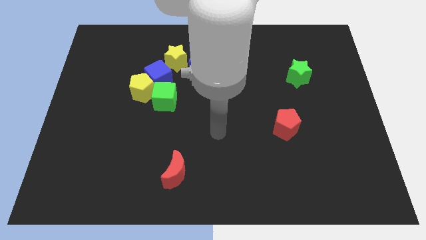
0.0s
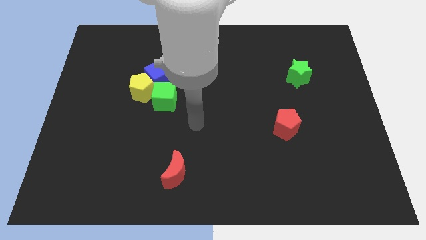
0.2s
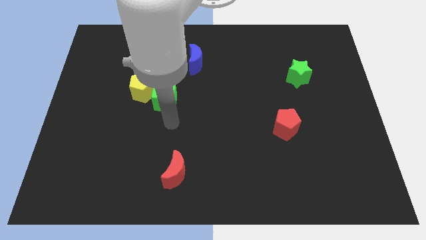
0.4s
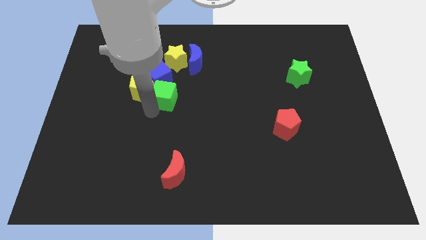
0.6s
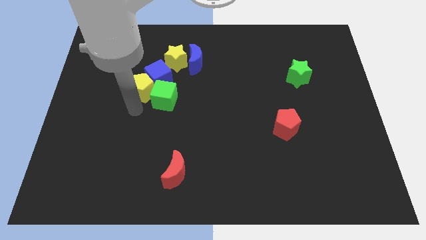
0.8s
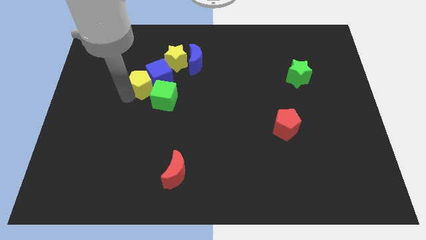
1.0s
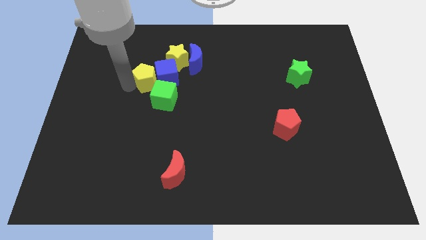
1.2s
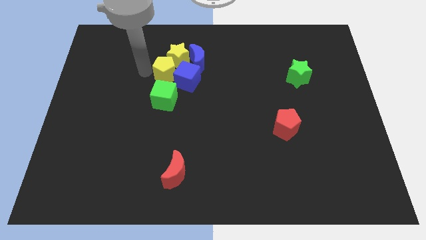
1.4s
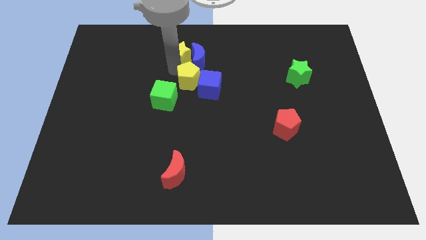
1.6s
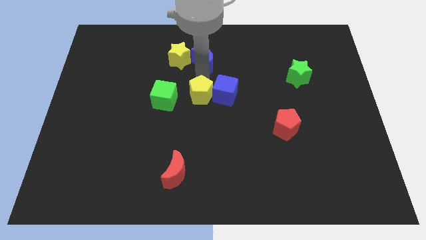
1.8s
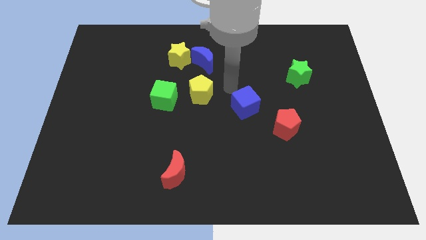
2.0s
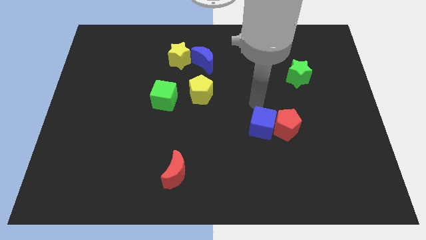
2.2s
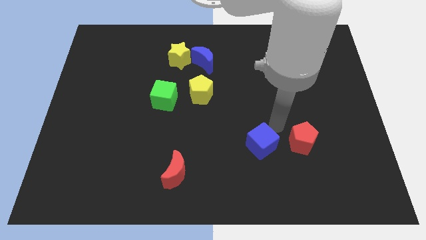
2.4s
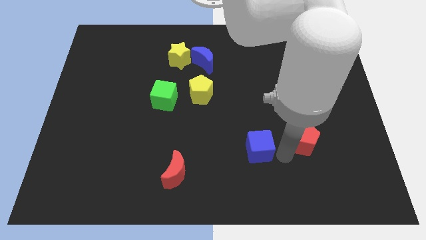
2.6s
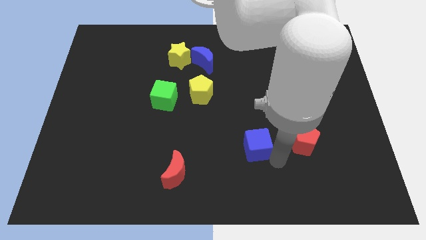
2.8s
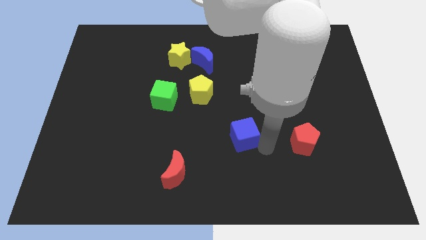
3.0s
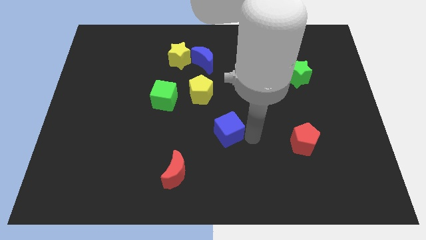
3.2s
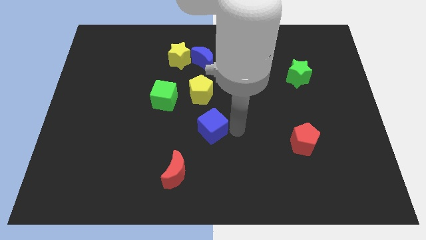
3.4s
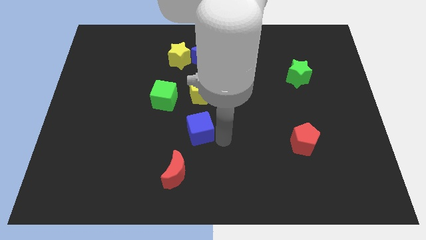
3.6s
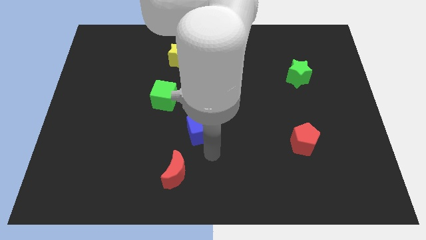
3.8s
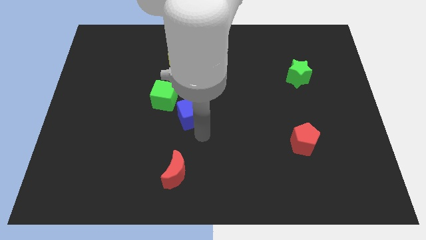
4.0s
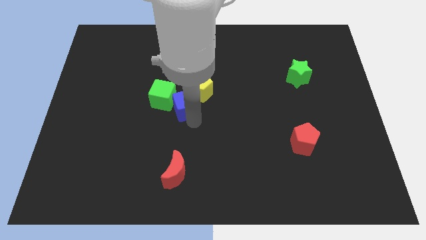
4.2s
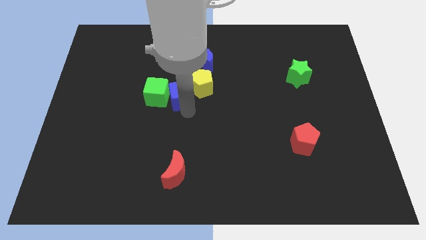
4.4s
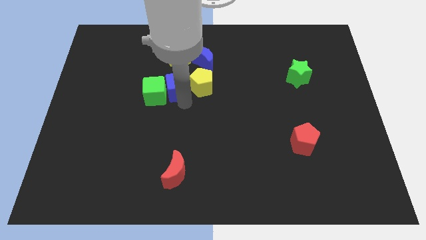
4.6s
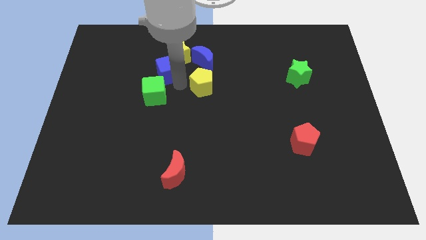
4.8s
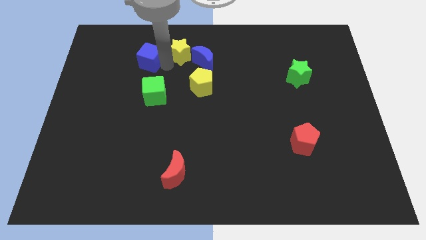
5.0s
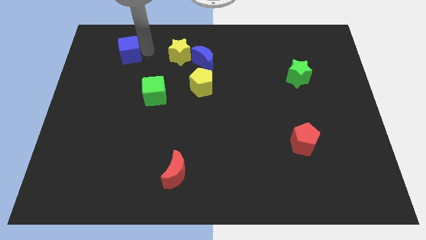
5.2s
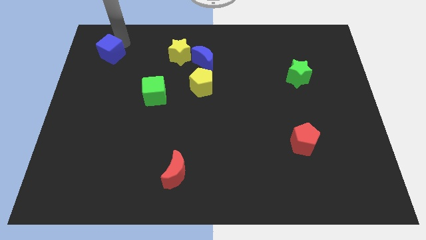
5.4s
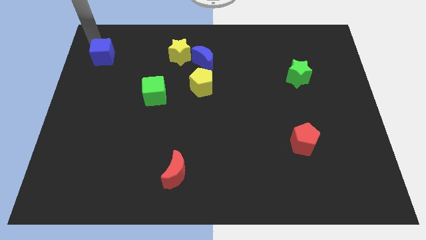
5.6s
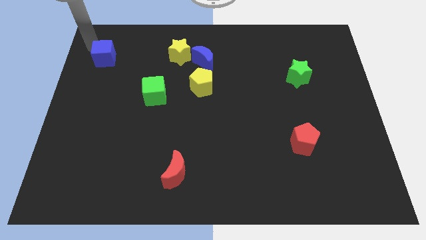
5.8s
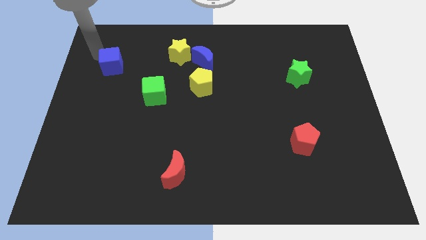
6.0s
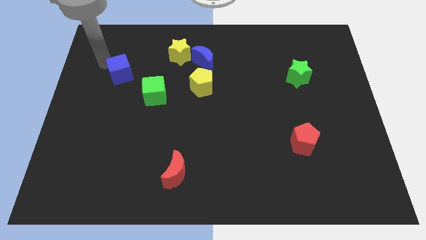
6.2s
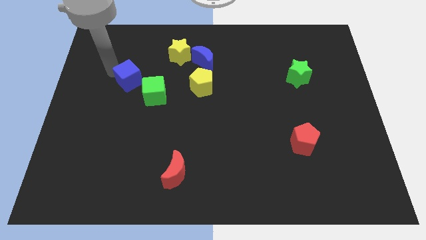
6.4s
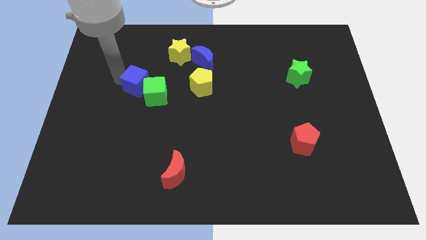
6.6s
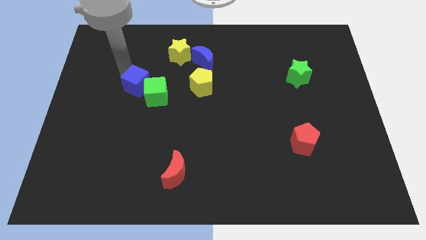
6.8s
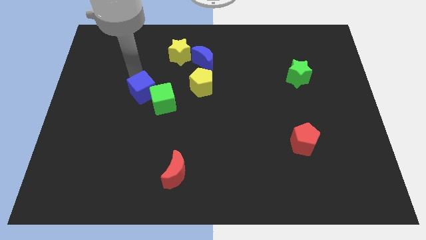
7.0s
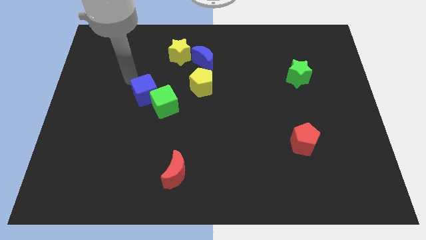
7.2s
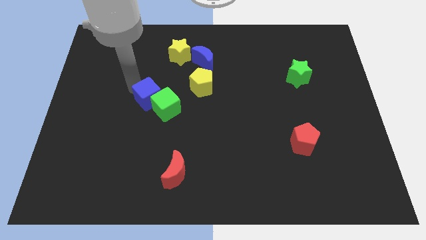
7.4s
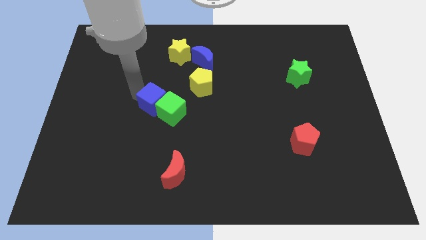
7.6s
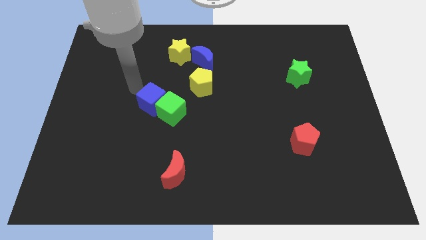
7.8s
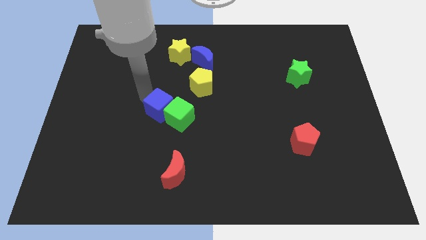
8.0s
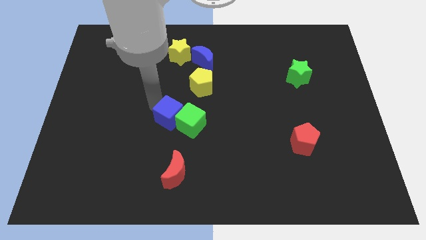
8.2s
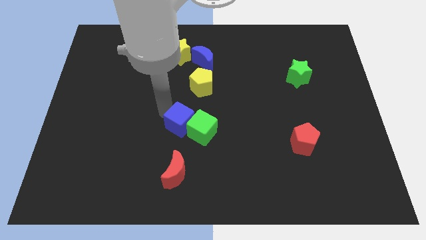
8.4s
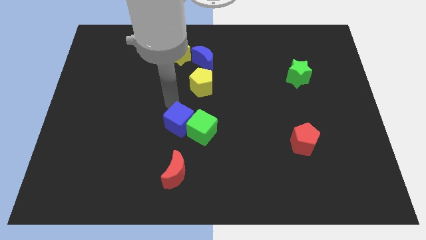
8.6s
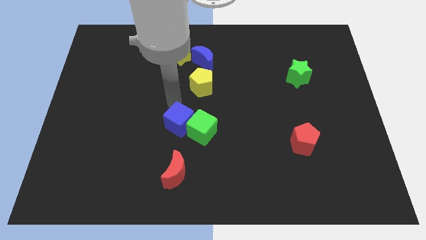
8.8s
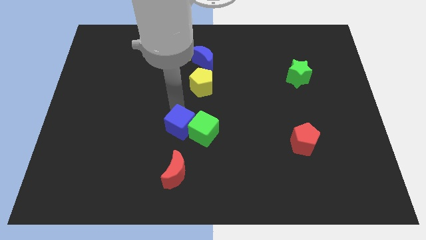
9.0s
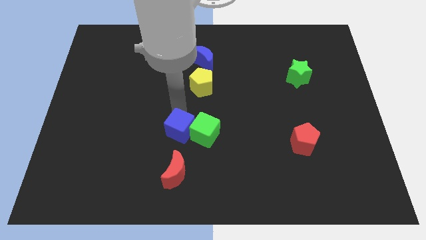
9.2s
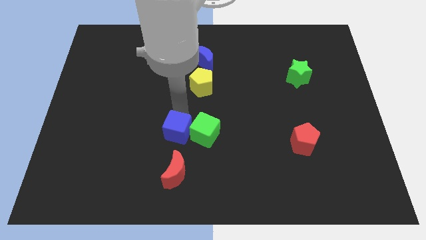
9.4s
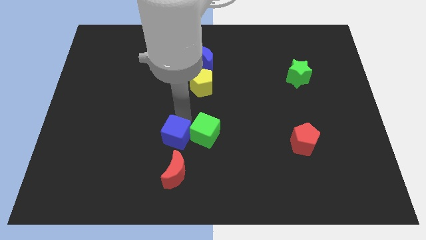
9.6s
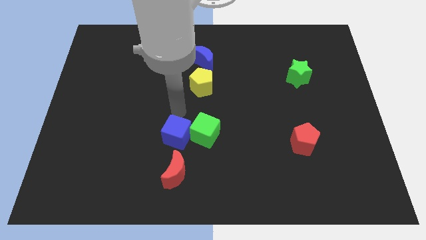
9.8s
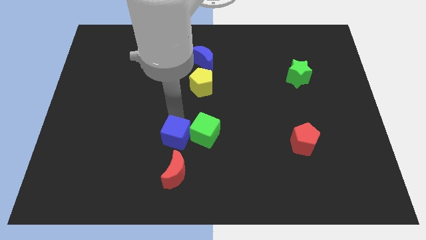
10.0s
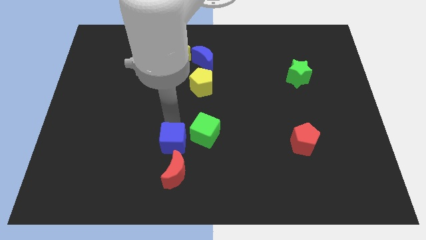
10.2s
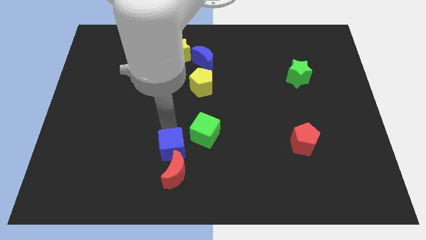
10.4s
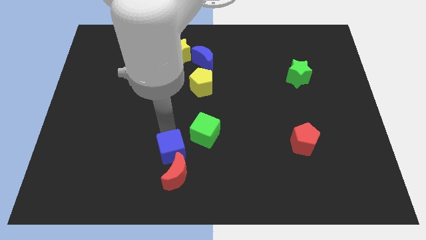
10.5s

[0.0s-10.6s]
push the blue cube towards the red moon

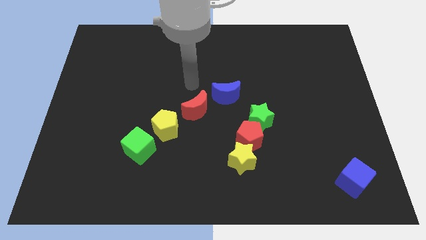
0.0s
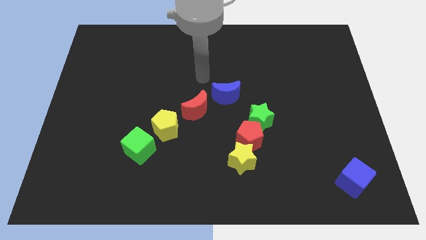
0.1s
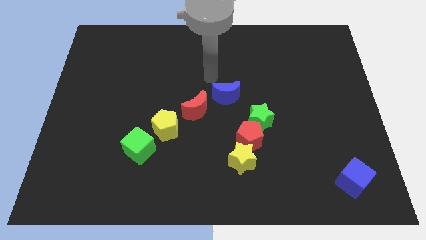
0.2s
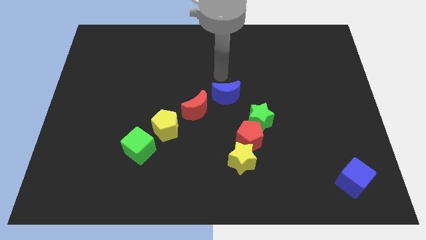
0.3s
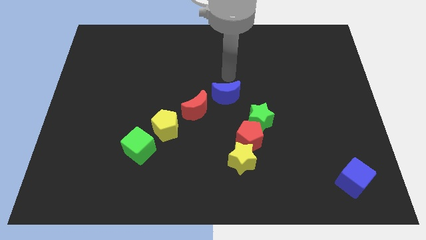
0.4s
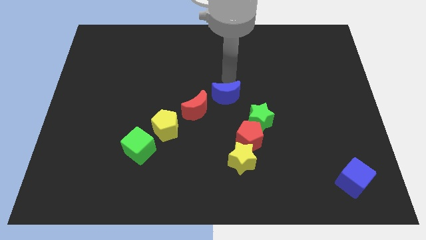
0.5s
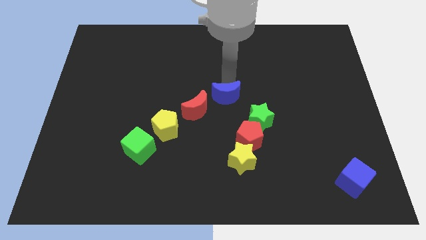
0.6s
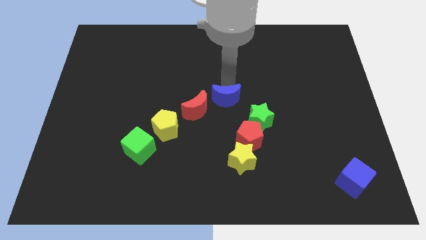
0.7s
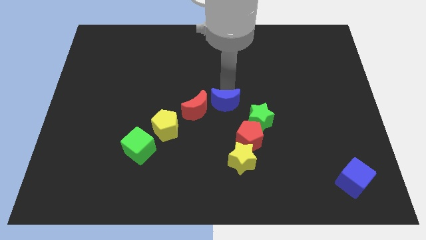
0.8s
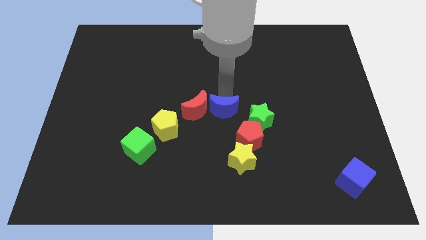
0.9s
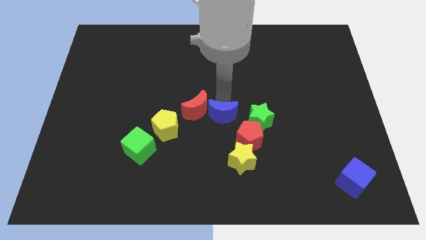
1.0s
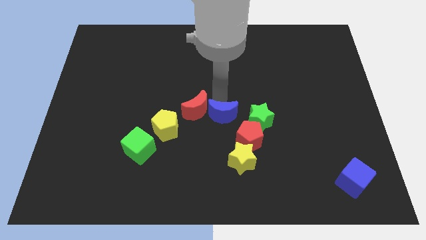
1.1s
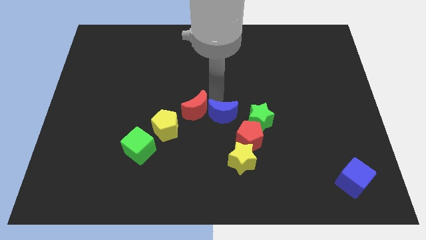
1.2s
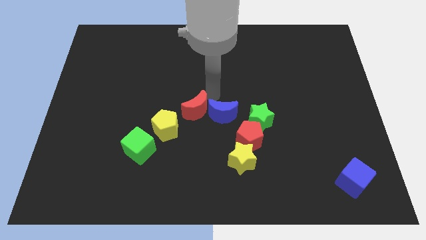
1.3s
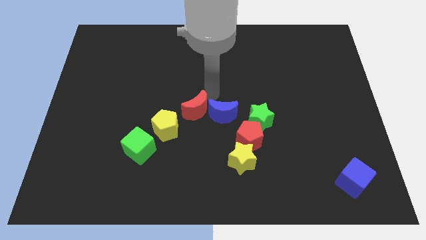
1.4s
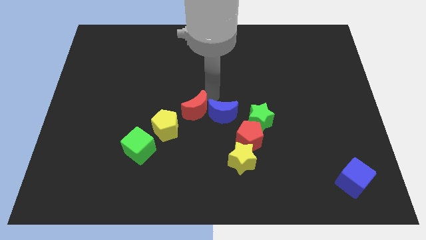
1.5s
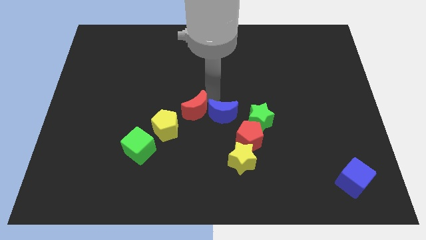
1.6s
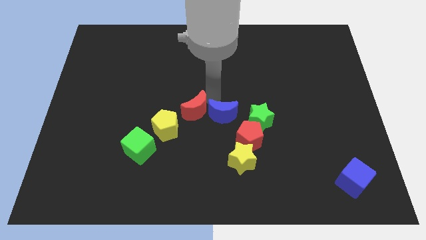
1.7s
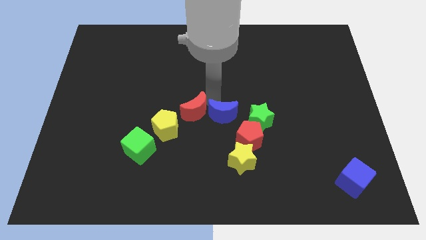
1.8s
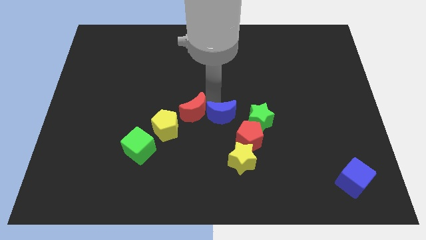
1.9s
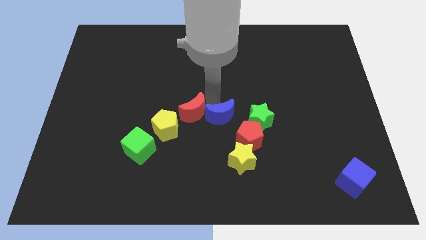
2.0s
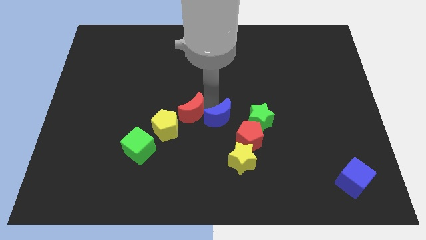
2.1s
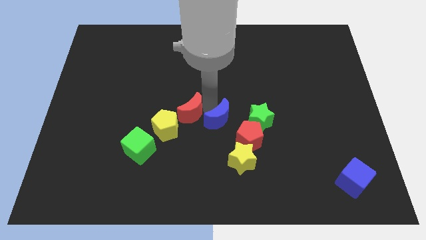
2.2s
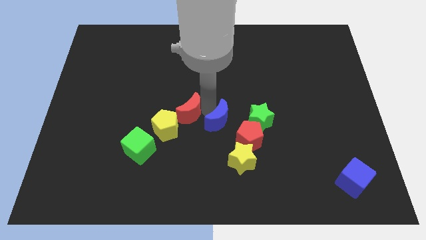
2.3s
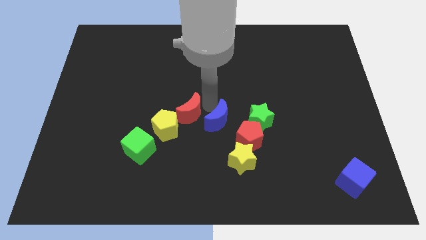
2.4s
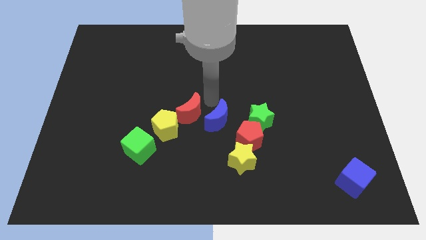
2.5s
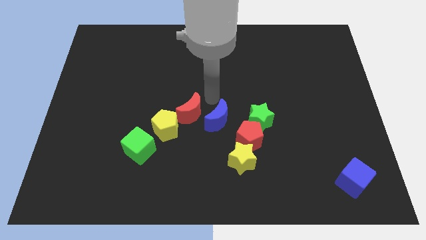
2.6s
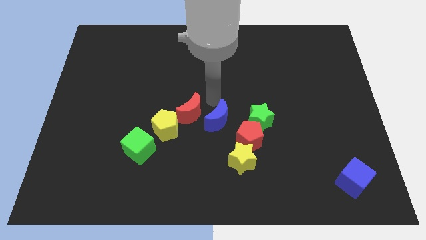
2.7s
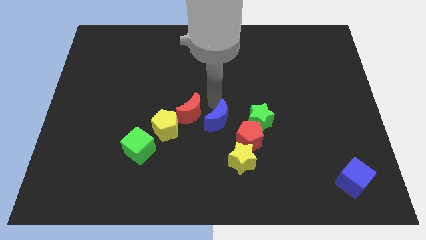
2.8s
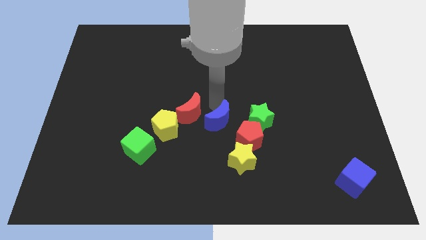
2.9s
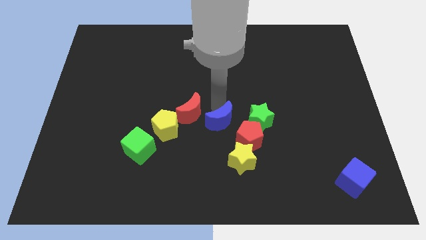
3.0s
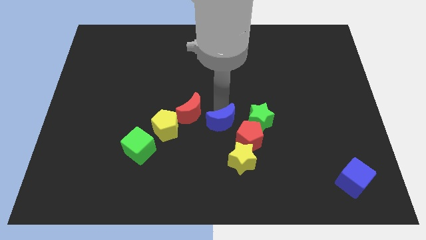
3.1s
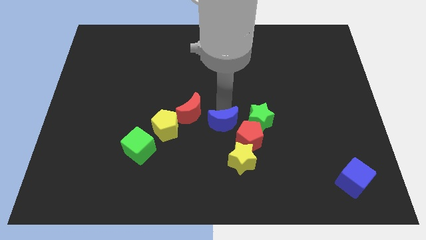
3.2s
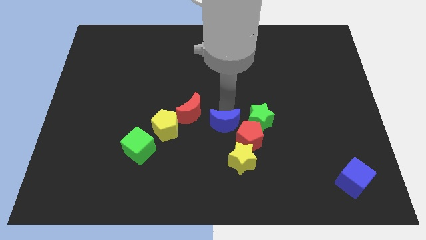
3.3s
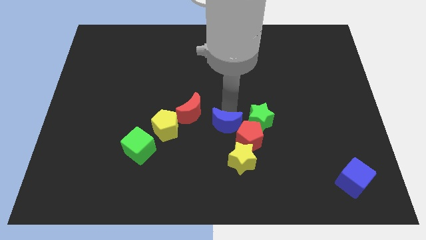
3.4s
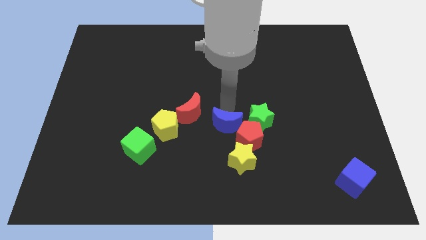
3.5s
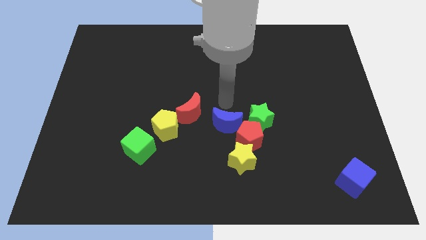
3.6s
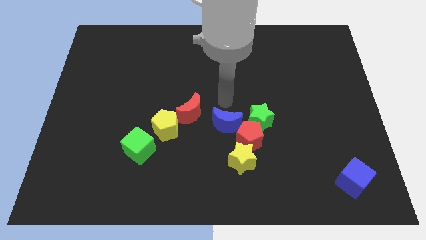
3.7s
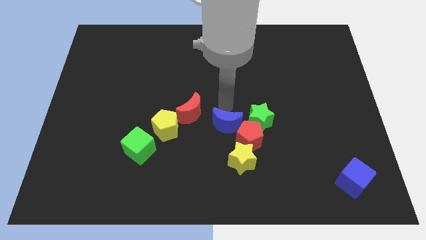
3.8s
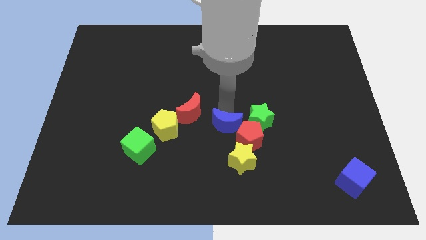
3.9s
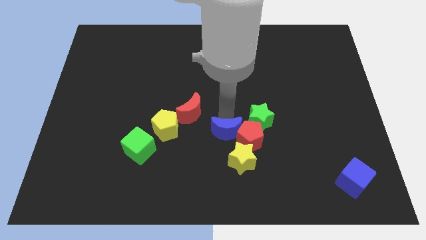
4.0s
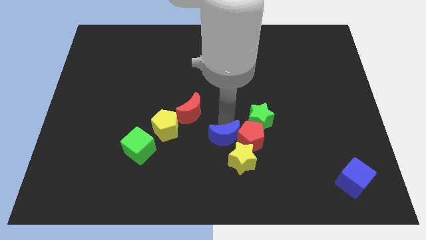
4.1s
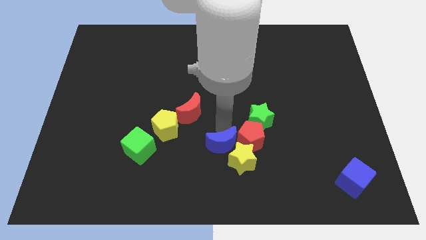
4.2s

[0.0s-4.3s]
put the blue moon next to the yellow star
